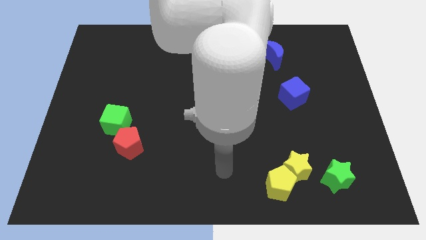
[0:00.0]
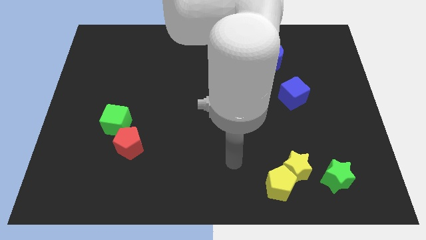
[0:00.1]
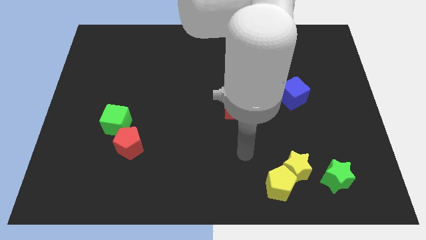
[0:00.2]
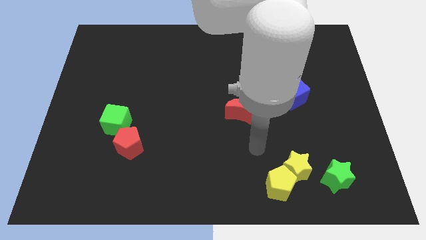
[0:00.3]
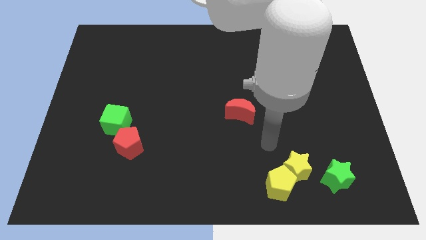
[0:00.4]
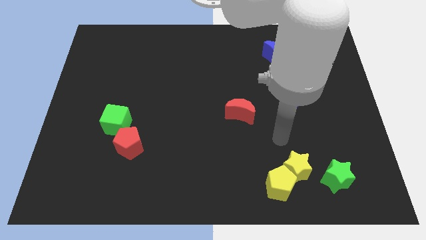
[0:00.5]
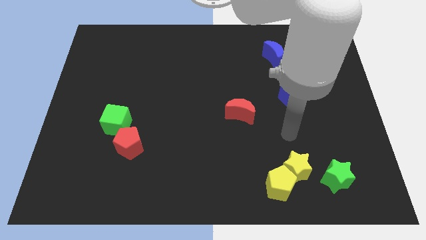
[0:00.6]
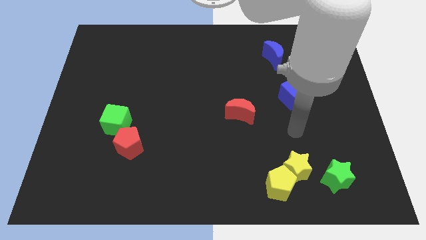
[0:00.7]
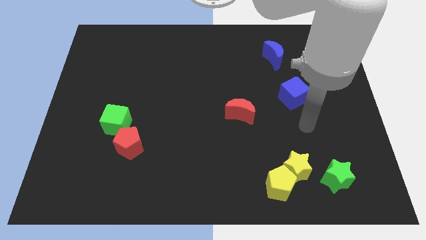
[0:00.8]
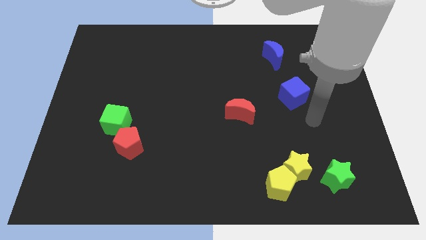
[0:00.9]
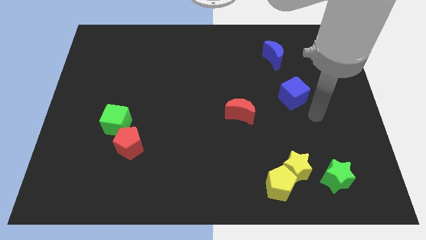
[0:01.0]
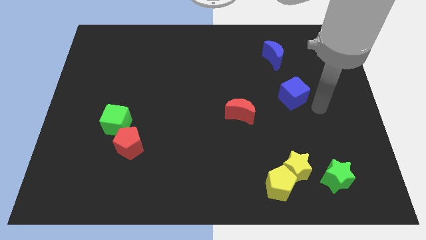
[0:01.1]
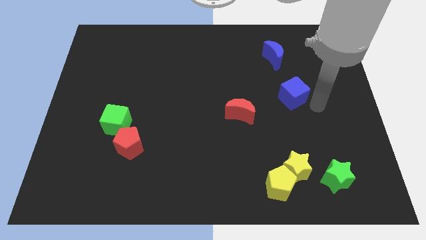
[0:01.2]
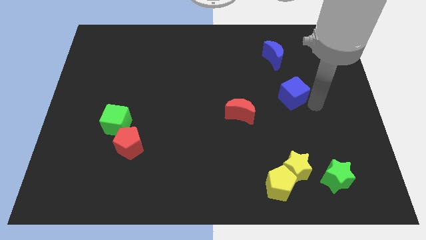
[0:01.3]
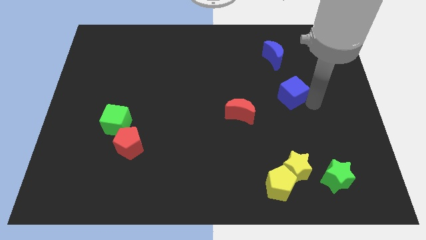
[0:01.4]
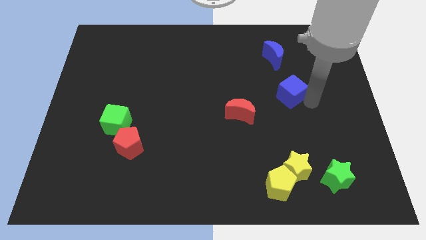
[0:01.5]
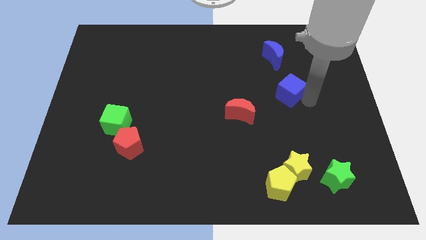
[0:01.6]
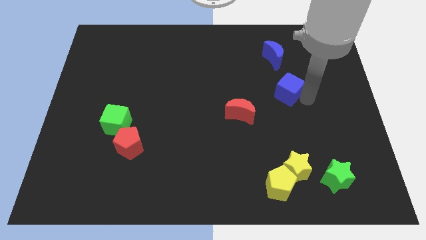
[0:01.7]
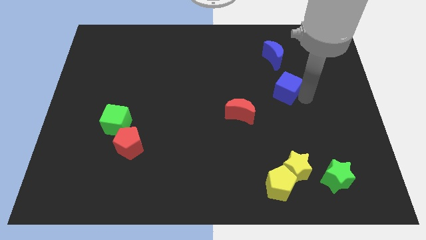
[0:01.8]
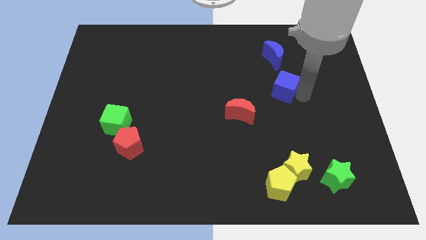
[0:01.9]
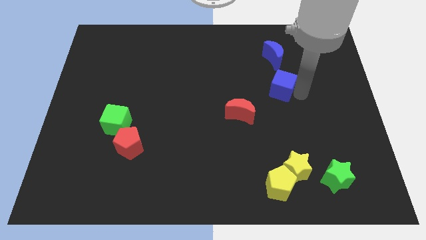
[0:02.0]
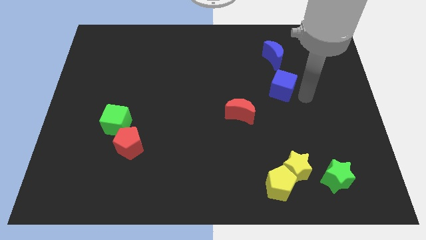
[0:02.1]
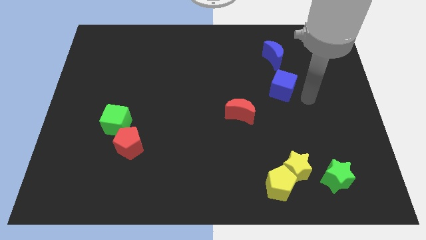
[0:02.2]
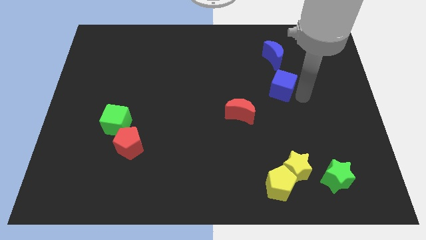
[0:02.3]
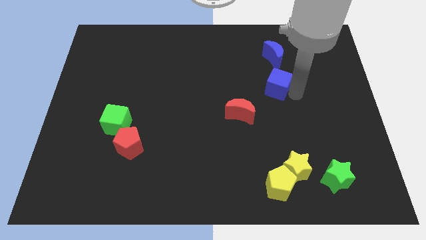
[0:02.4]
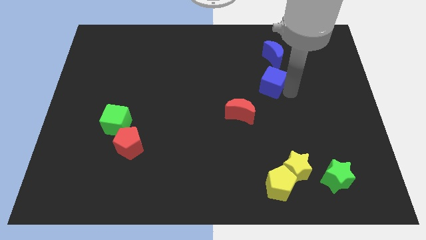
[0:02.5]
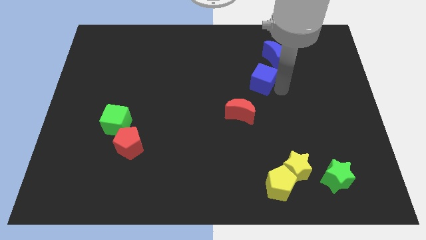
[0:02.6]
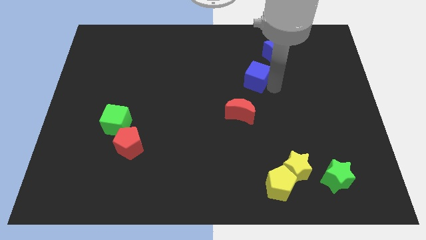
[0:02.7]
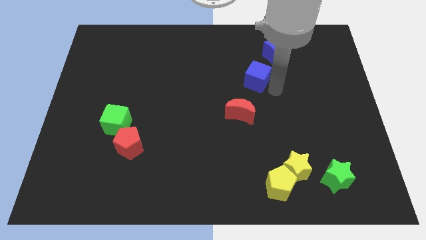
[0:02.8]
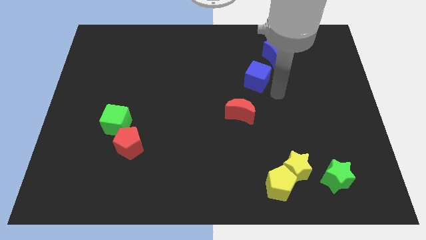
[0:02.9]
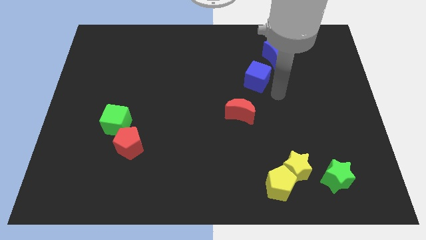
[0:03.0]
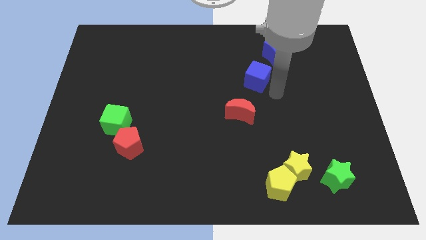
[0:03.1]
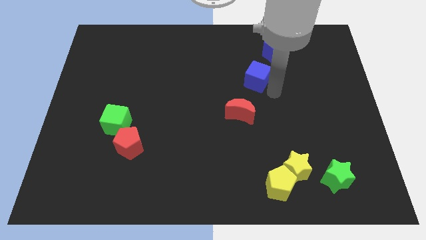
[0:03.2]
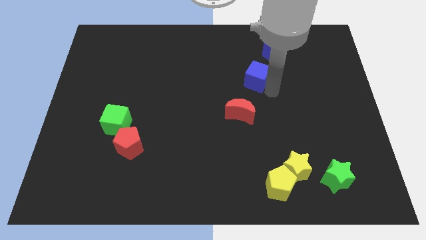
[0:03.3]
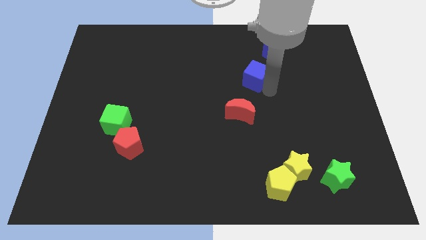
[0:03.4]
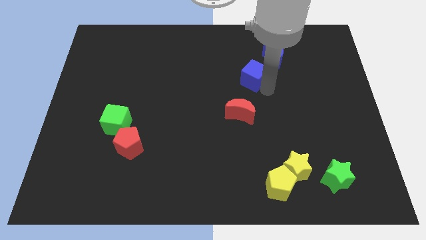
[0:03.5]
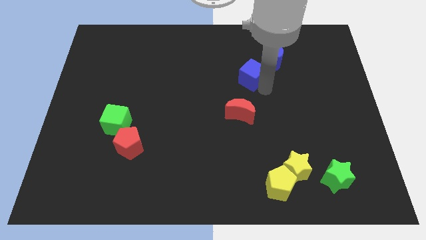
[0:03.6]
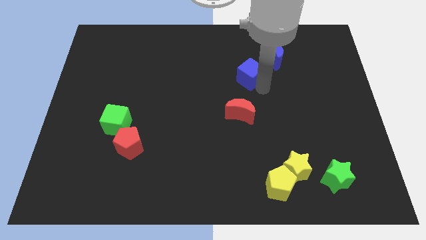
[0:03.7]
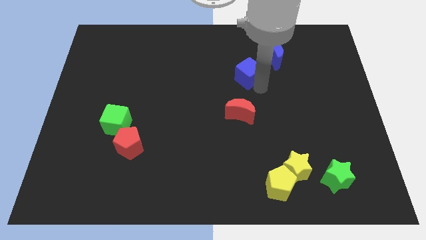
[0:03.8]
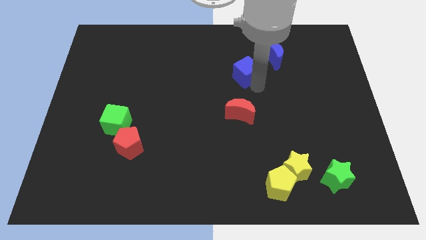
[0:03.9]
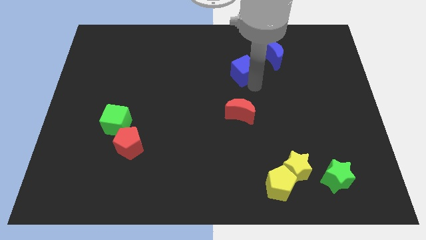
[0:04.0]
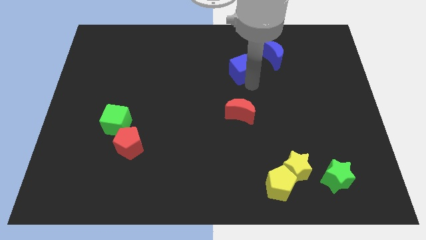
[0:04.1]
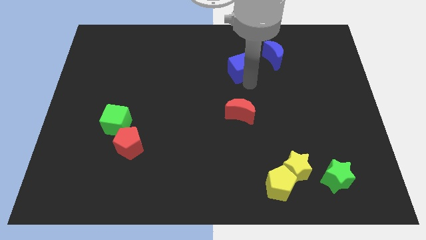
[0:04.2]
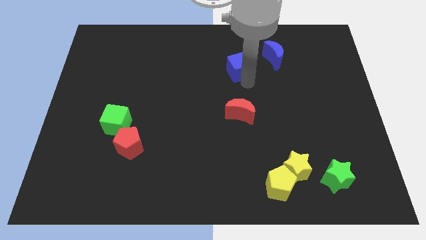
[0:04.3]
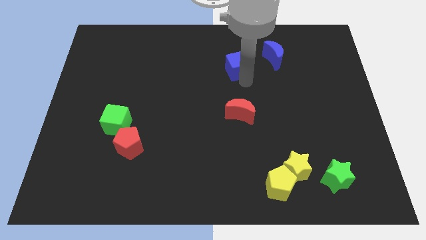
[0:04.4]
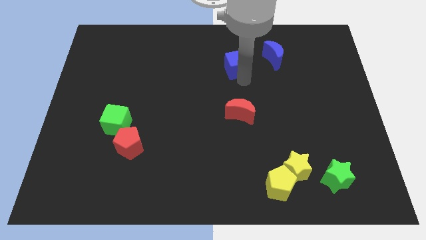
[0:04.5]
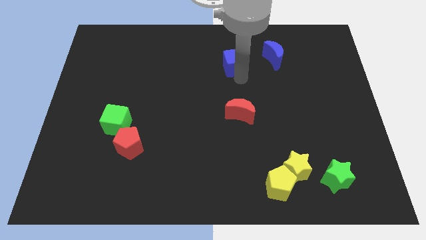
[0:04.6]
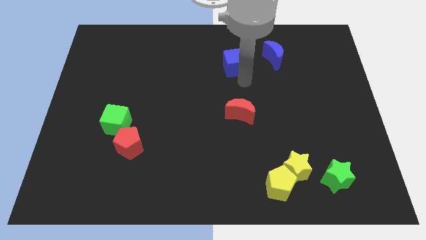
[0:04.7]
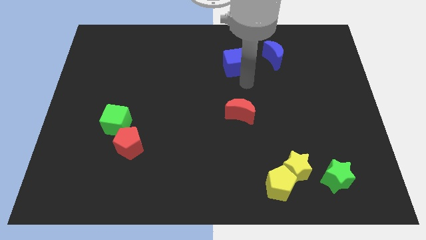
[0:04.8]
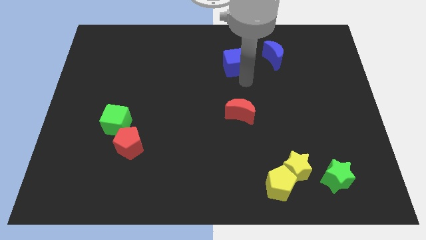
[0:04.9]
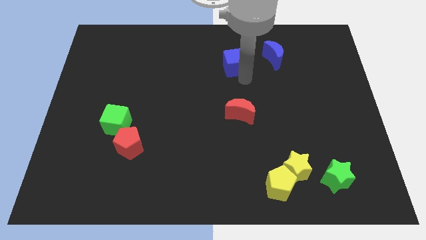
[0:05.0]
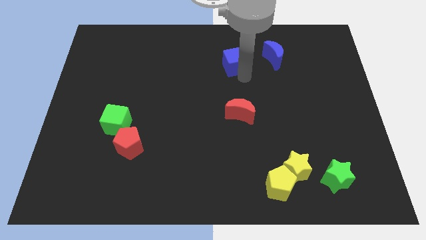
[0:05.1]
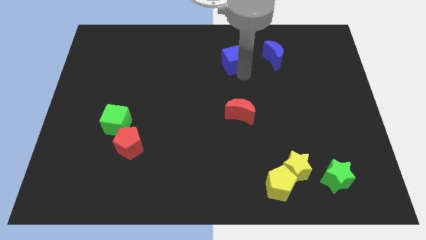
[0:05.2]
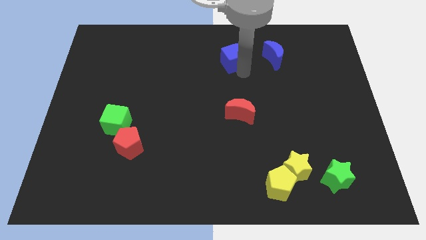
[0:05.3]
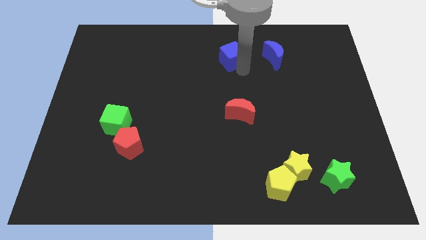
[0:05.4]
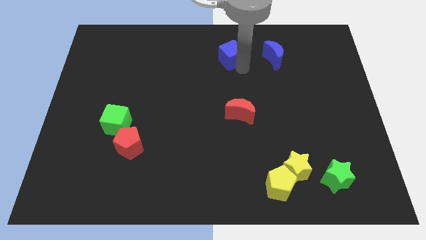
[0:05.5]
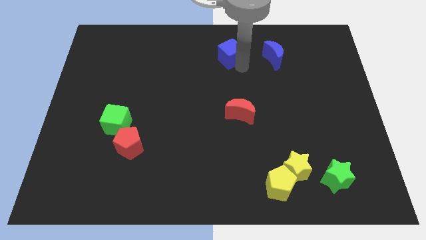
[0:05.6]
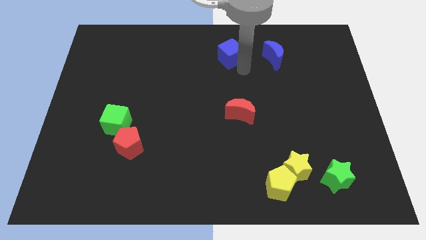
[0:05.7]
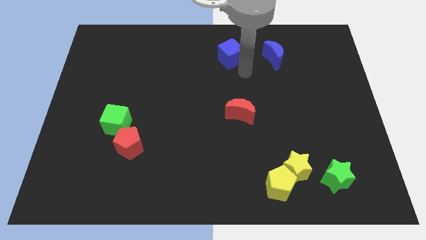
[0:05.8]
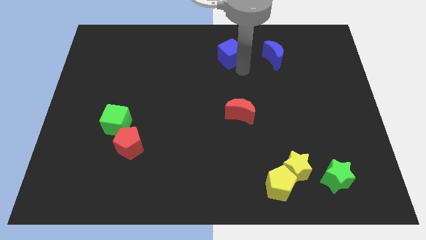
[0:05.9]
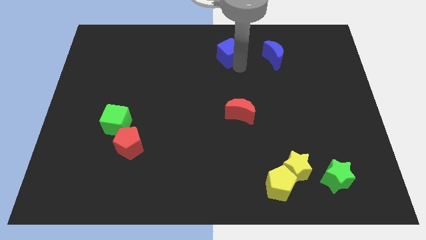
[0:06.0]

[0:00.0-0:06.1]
move the blue cube to the top side

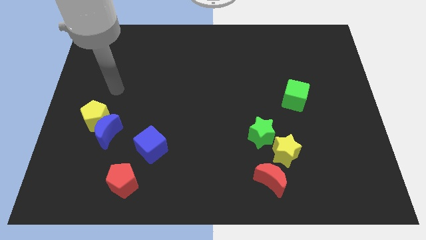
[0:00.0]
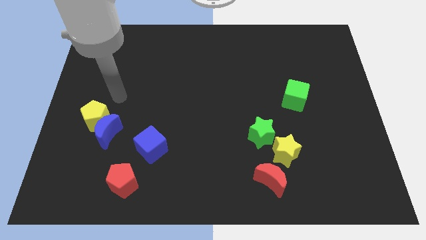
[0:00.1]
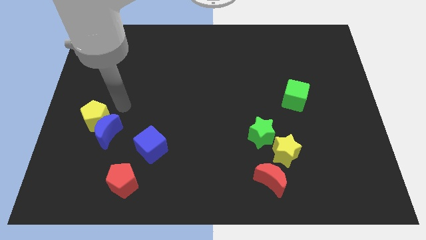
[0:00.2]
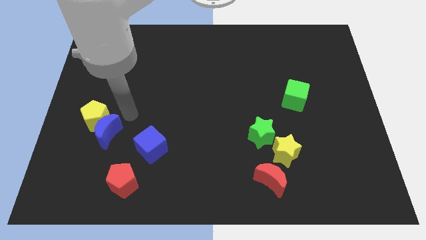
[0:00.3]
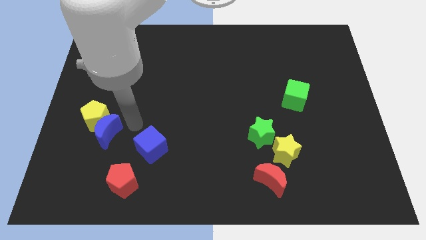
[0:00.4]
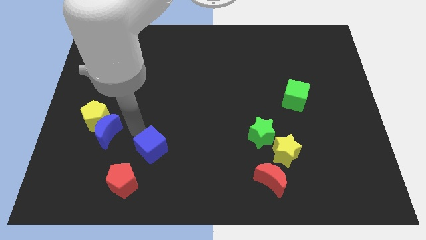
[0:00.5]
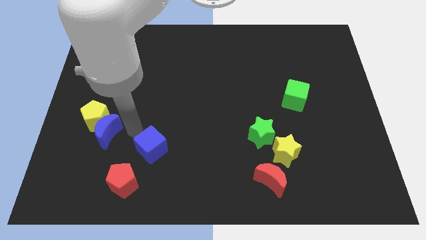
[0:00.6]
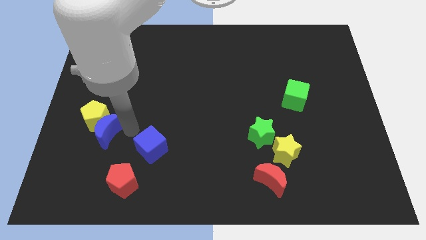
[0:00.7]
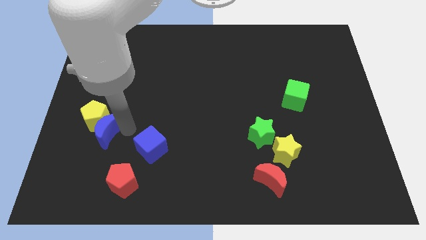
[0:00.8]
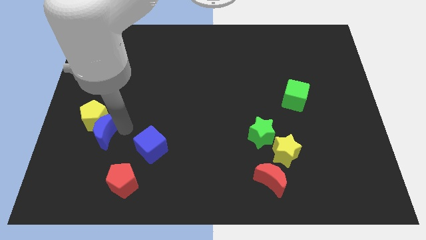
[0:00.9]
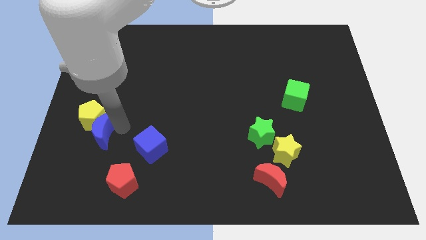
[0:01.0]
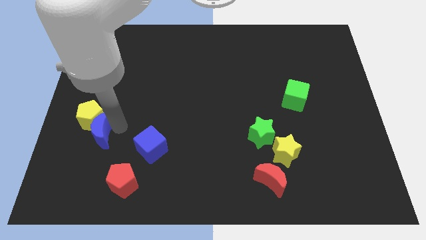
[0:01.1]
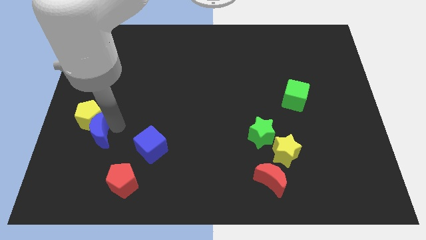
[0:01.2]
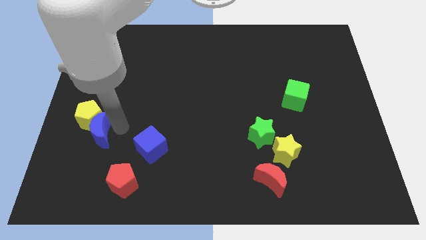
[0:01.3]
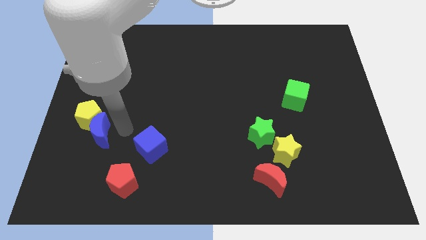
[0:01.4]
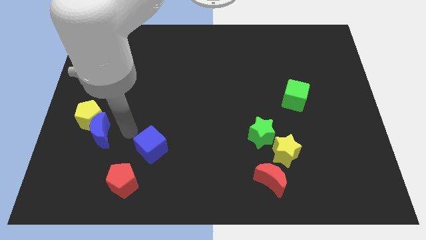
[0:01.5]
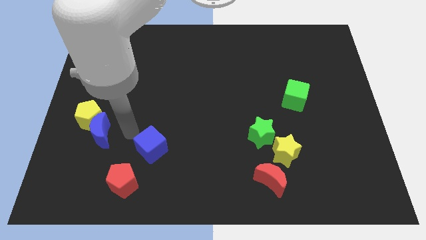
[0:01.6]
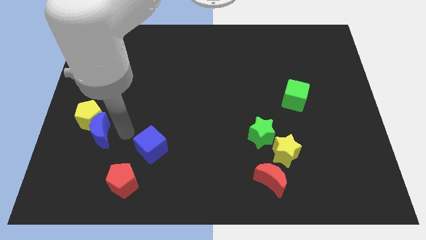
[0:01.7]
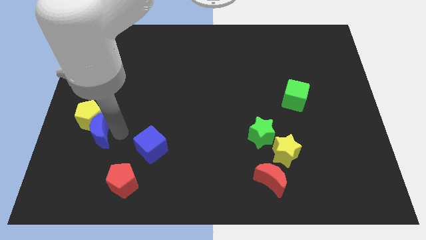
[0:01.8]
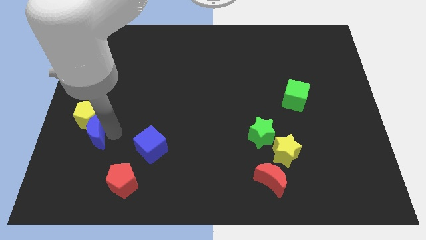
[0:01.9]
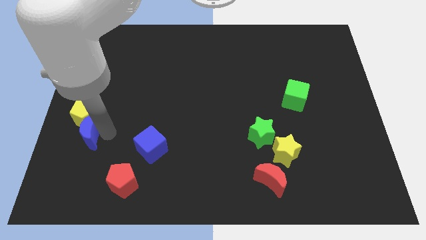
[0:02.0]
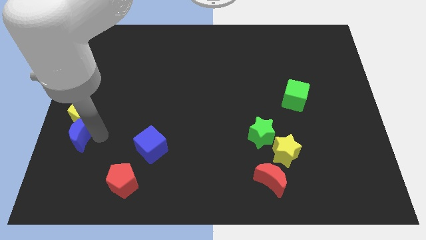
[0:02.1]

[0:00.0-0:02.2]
slide the blue moon to the left side of the board
